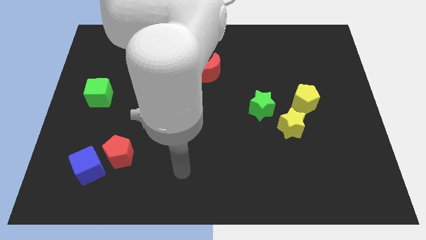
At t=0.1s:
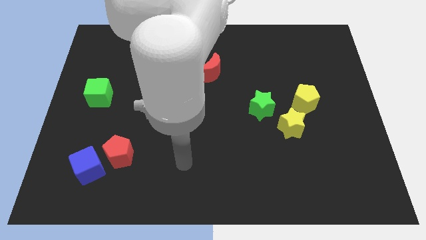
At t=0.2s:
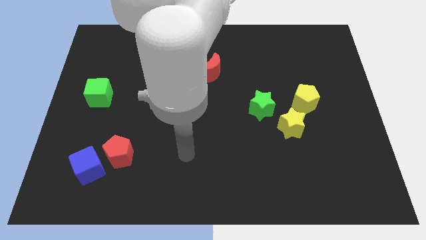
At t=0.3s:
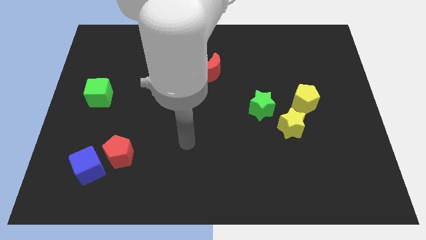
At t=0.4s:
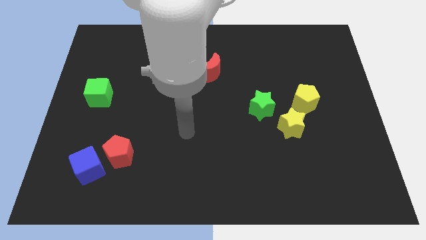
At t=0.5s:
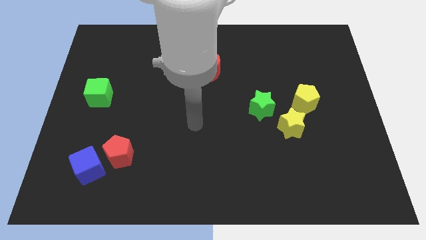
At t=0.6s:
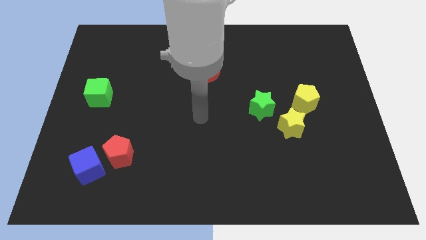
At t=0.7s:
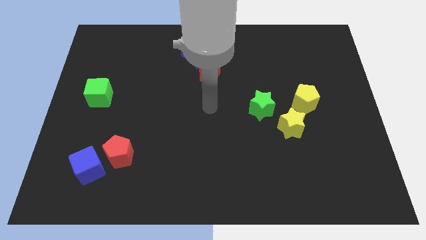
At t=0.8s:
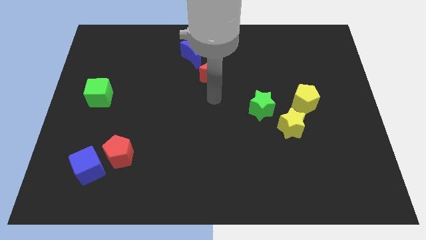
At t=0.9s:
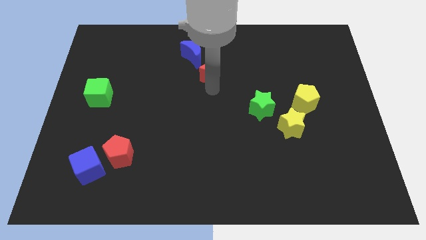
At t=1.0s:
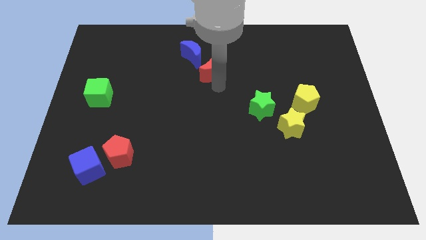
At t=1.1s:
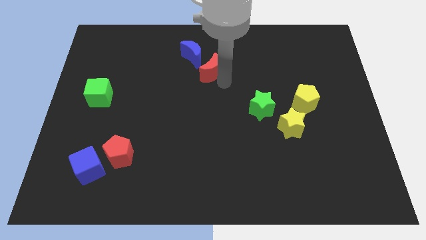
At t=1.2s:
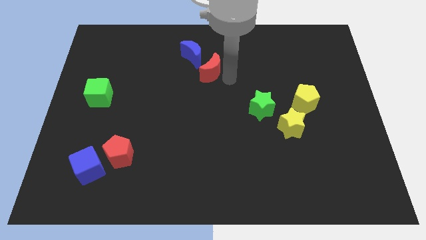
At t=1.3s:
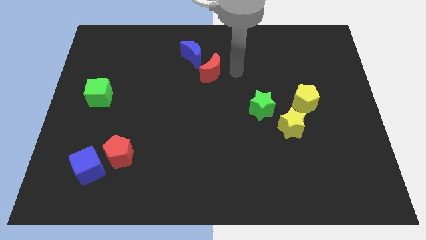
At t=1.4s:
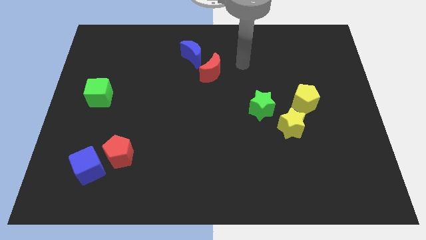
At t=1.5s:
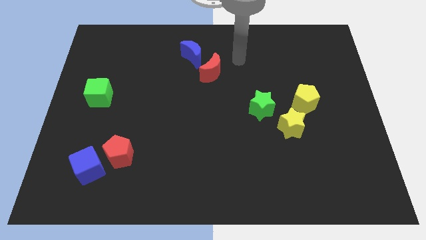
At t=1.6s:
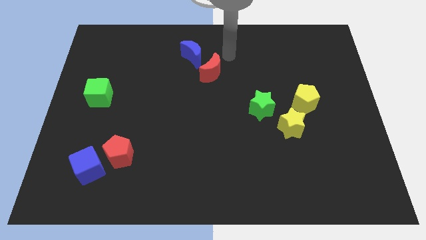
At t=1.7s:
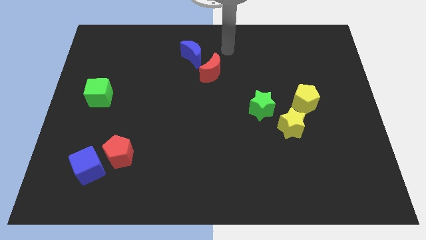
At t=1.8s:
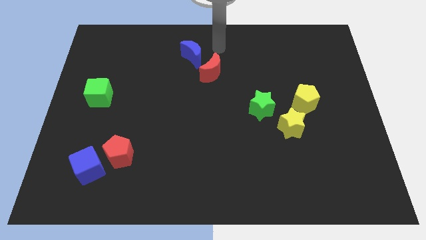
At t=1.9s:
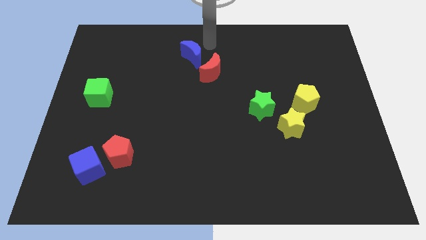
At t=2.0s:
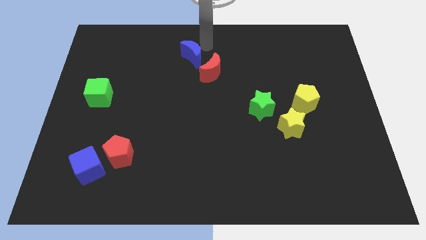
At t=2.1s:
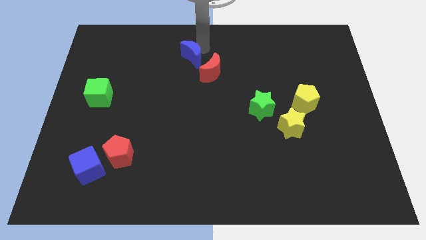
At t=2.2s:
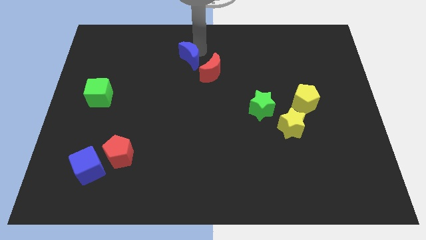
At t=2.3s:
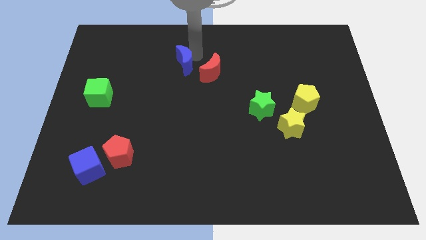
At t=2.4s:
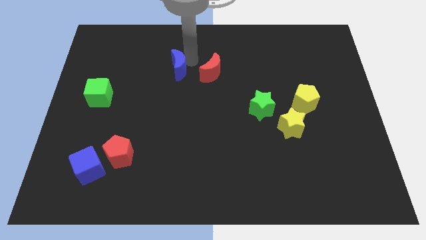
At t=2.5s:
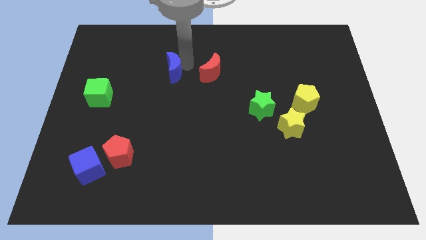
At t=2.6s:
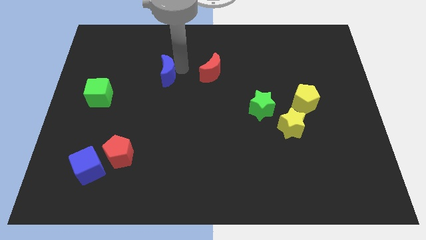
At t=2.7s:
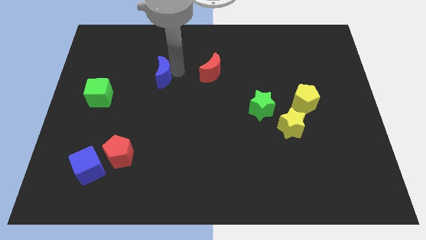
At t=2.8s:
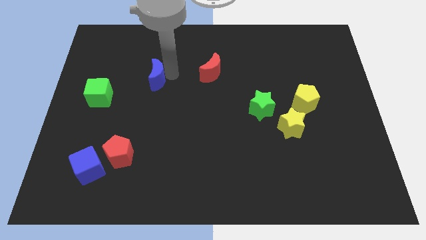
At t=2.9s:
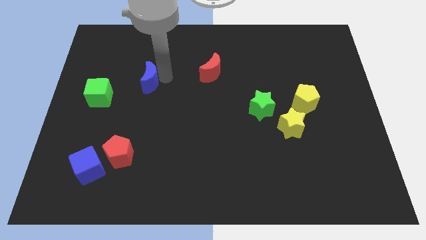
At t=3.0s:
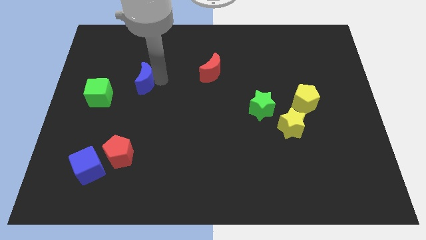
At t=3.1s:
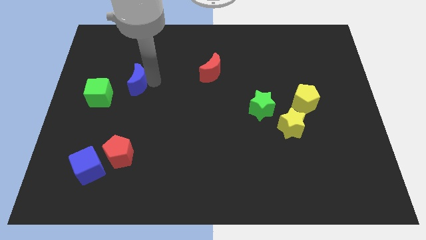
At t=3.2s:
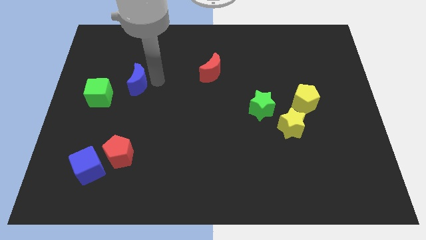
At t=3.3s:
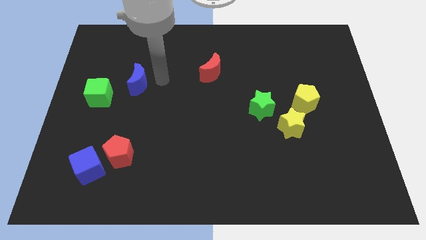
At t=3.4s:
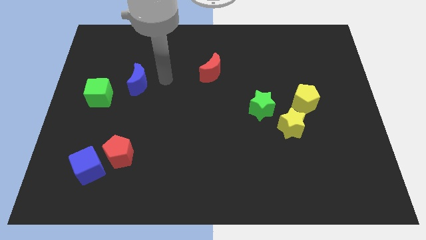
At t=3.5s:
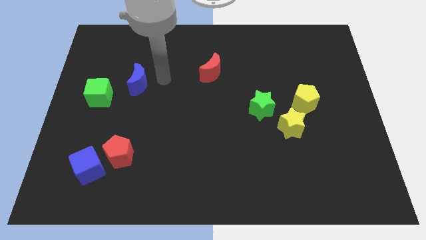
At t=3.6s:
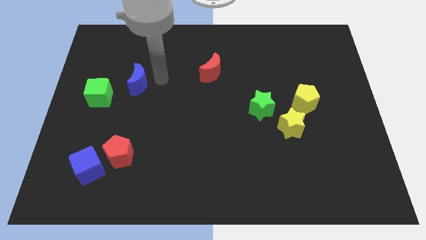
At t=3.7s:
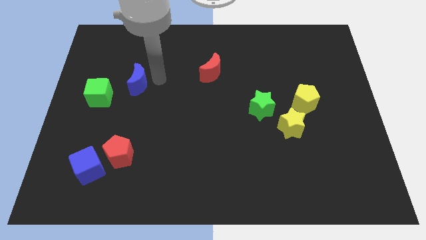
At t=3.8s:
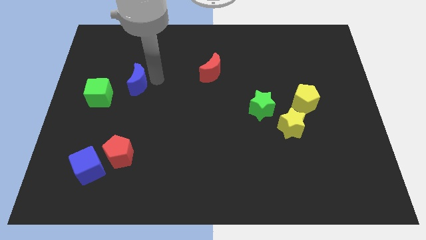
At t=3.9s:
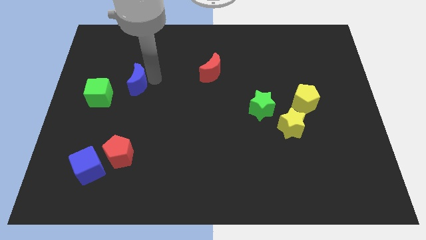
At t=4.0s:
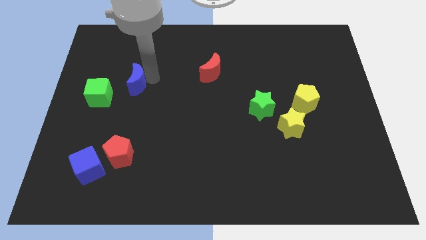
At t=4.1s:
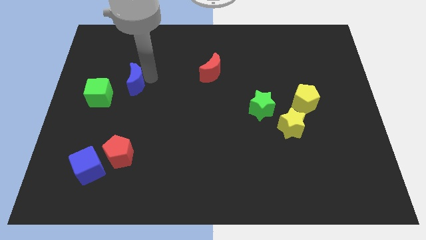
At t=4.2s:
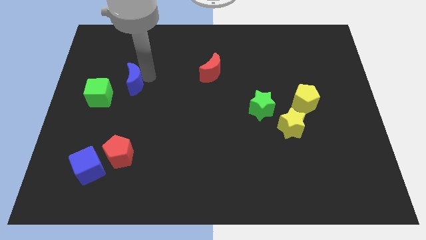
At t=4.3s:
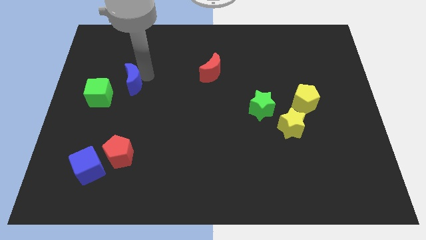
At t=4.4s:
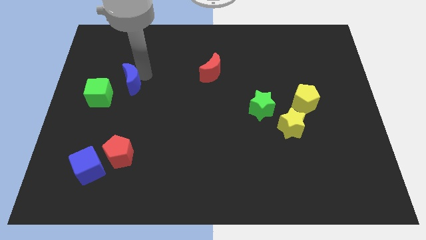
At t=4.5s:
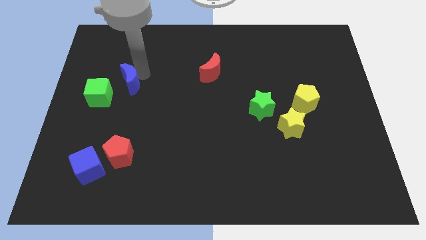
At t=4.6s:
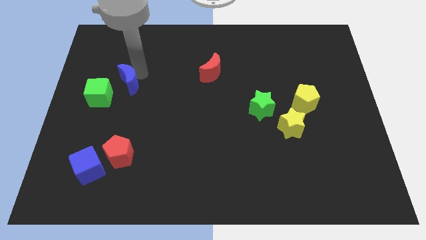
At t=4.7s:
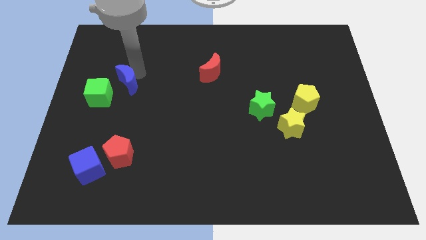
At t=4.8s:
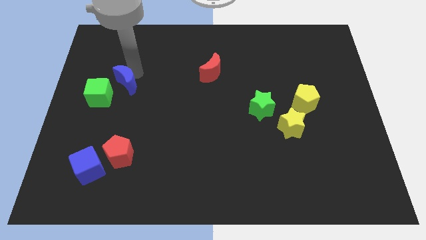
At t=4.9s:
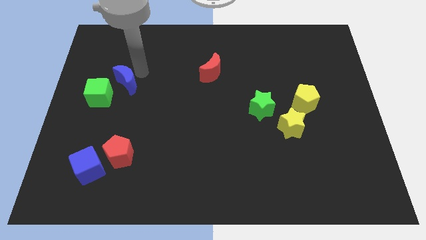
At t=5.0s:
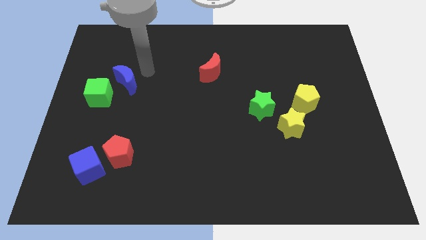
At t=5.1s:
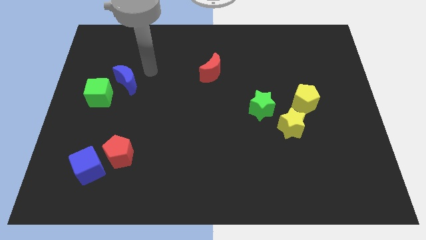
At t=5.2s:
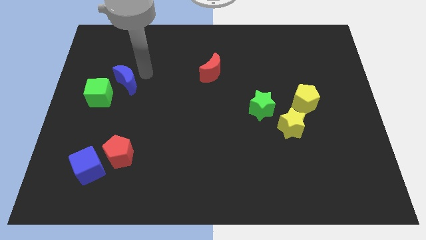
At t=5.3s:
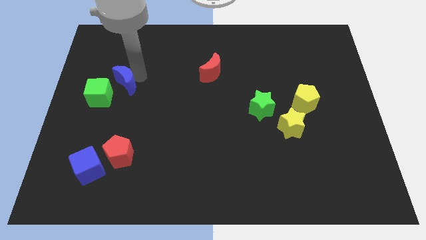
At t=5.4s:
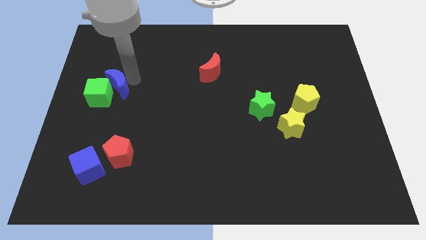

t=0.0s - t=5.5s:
push the blue moon next to the green cube

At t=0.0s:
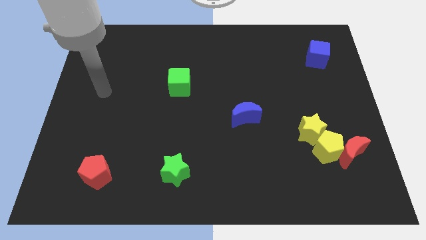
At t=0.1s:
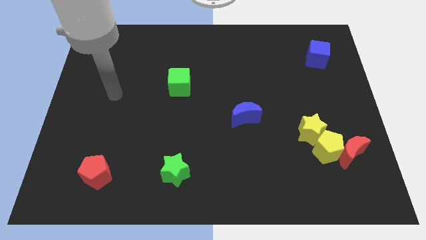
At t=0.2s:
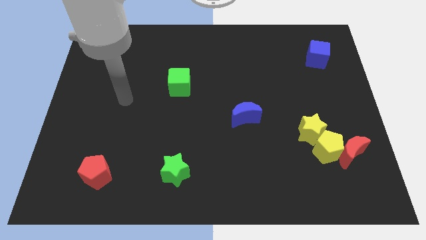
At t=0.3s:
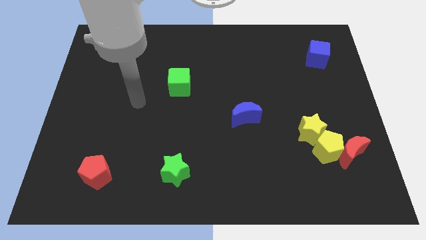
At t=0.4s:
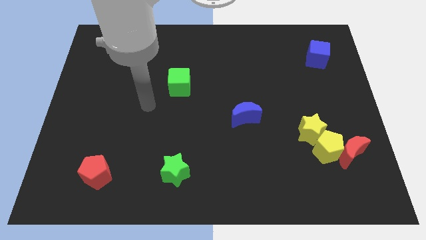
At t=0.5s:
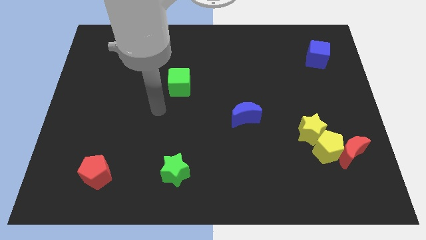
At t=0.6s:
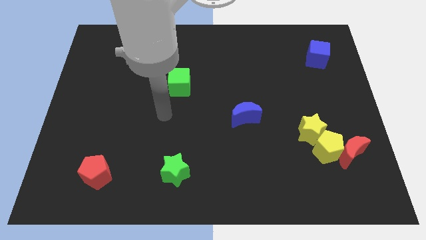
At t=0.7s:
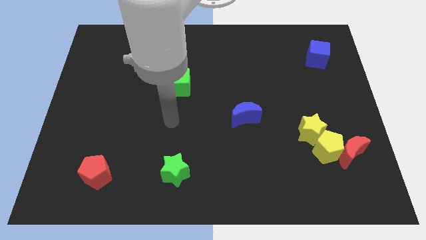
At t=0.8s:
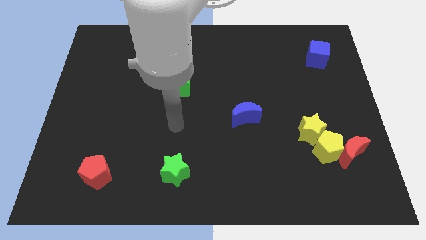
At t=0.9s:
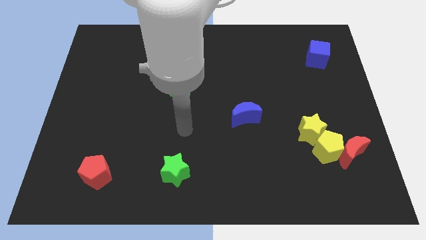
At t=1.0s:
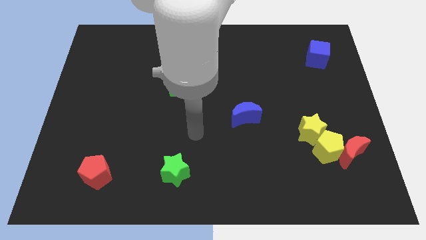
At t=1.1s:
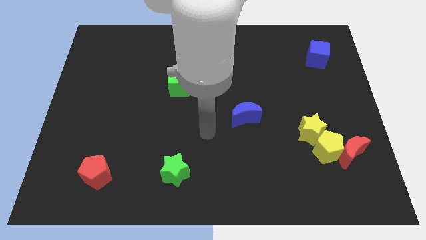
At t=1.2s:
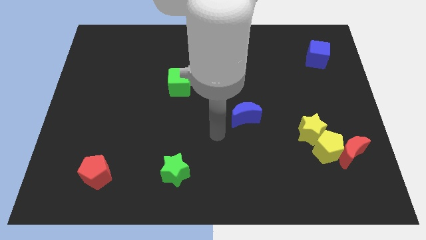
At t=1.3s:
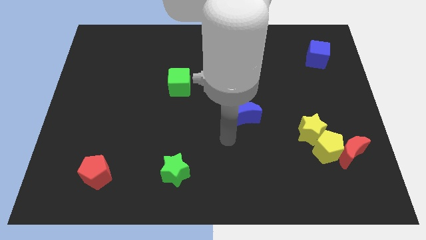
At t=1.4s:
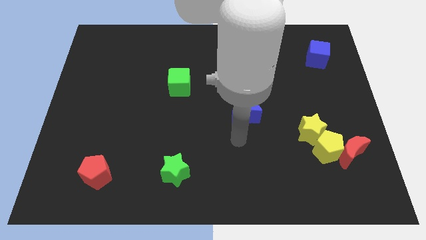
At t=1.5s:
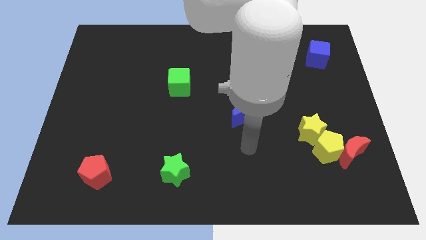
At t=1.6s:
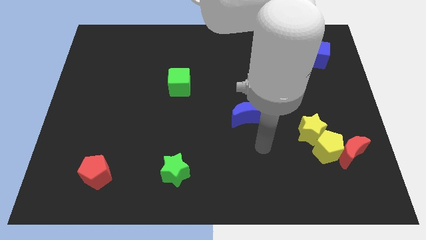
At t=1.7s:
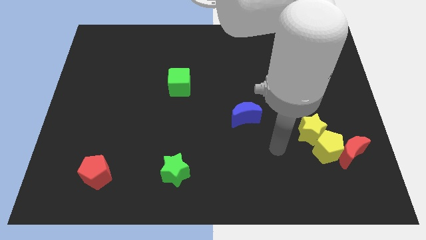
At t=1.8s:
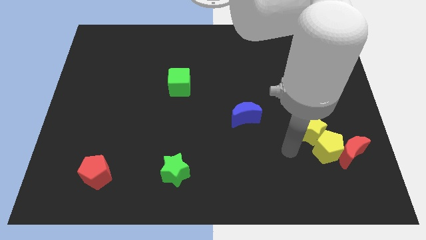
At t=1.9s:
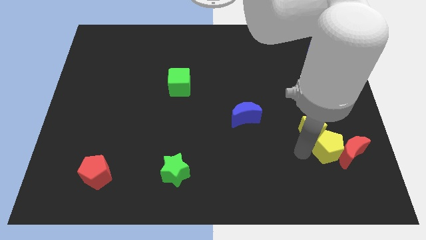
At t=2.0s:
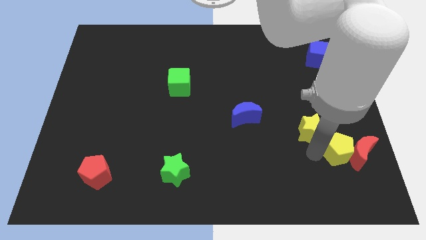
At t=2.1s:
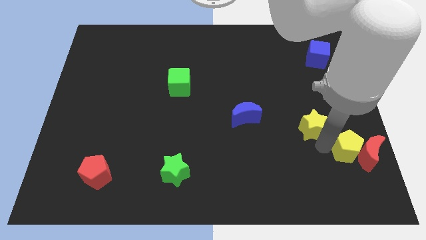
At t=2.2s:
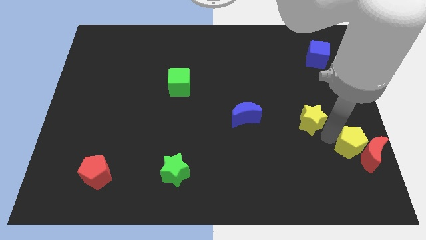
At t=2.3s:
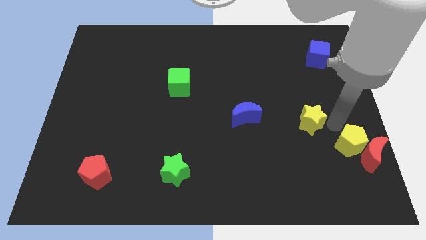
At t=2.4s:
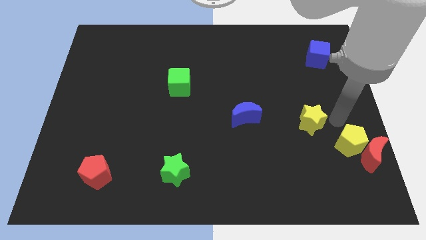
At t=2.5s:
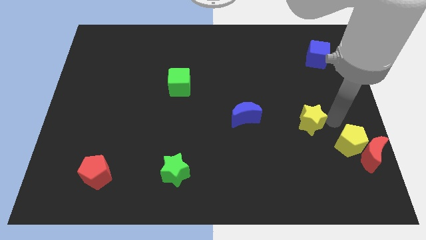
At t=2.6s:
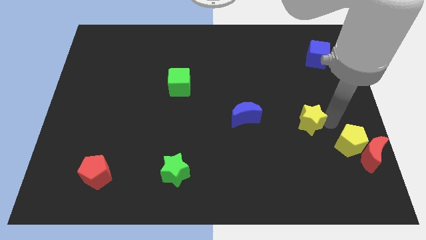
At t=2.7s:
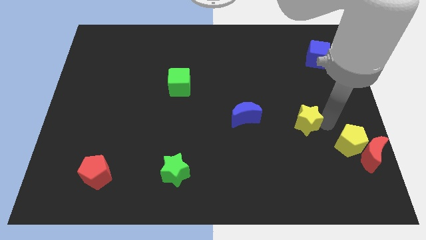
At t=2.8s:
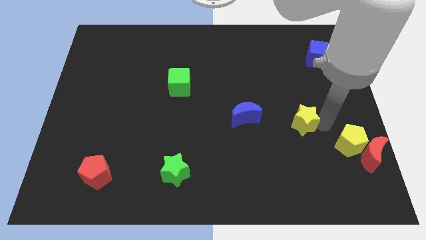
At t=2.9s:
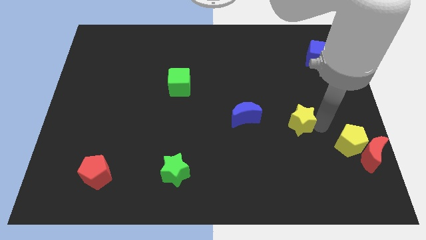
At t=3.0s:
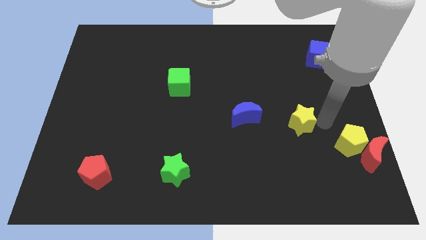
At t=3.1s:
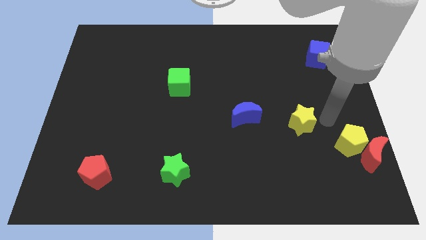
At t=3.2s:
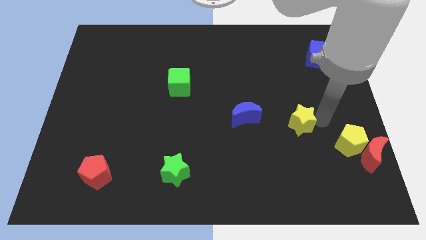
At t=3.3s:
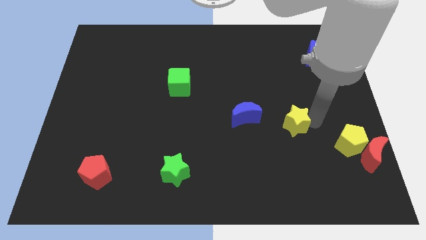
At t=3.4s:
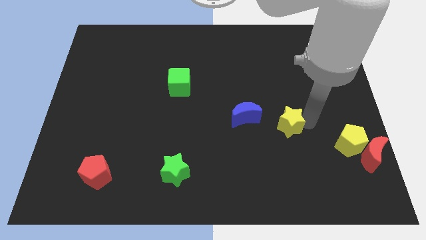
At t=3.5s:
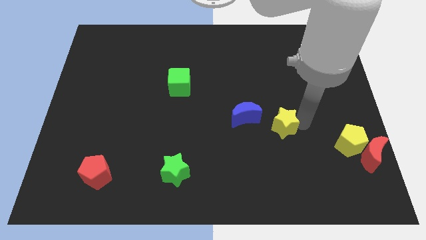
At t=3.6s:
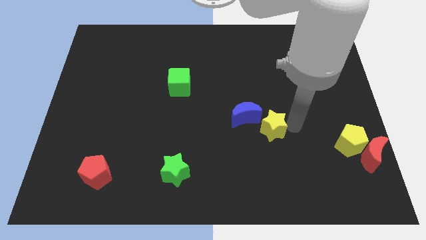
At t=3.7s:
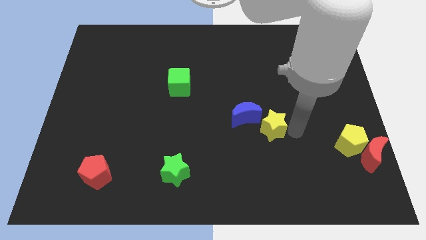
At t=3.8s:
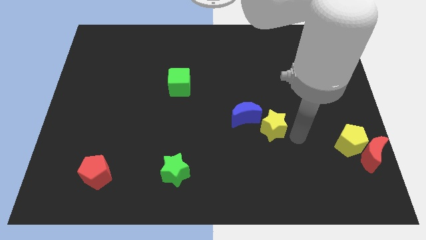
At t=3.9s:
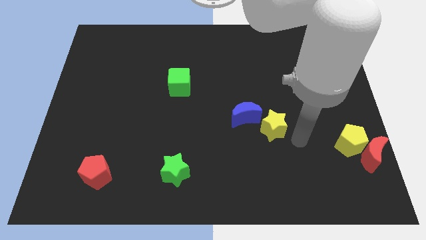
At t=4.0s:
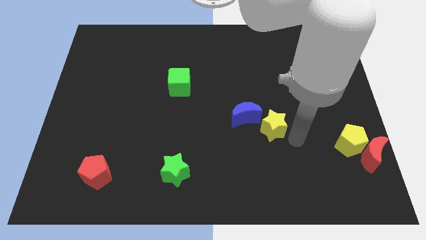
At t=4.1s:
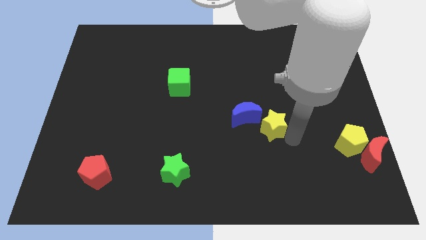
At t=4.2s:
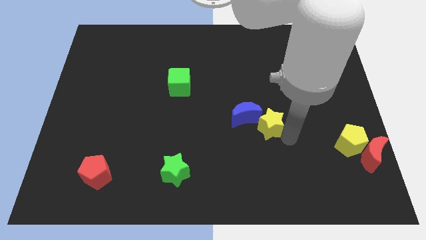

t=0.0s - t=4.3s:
slide the yellow star next to the blue moon
